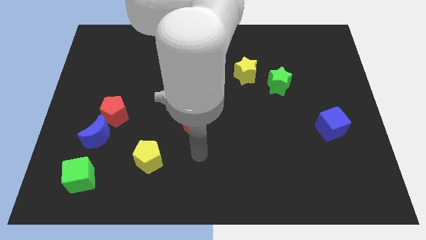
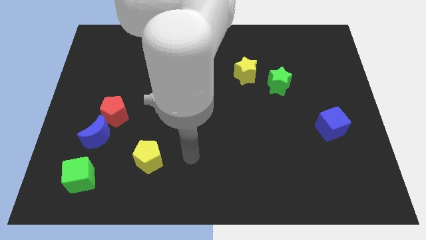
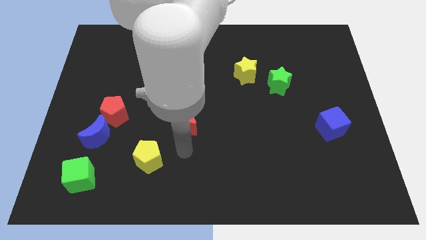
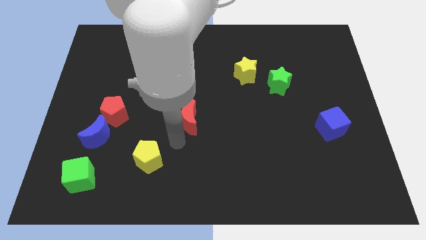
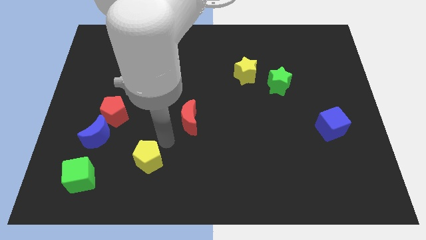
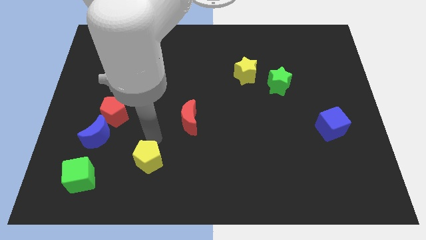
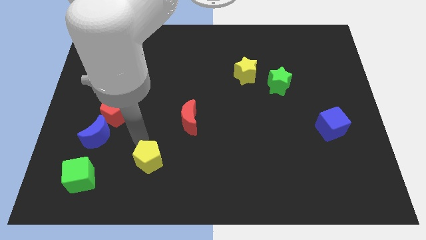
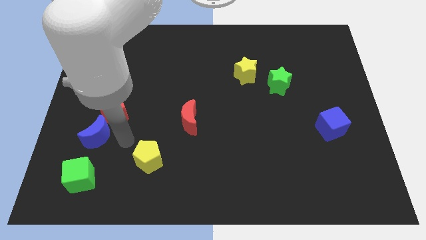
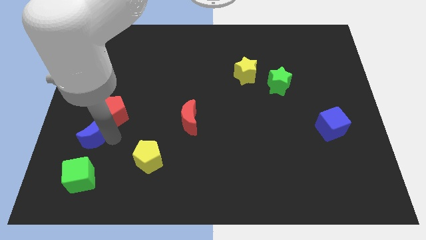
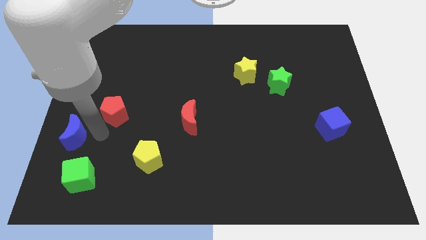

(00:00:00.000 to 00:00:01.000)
separate the red pentagon from the blue moon

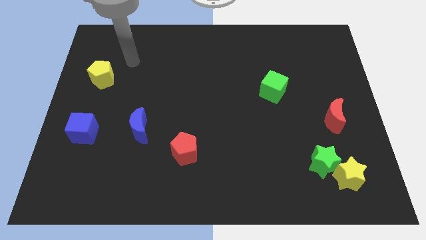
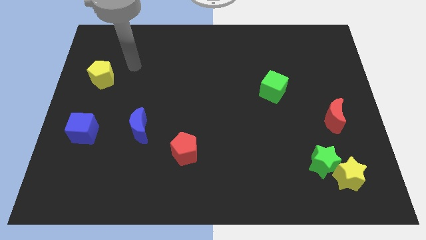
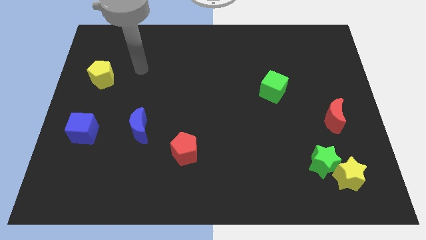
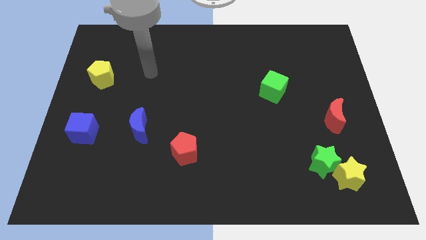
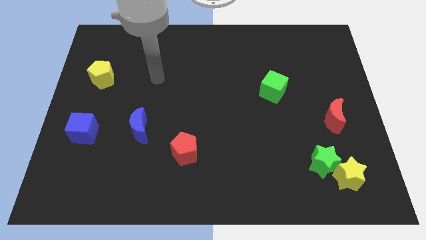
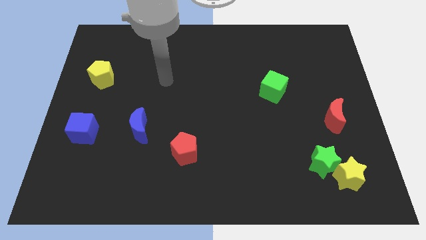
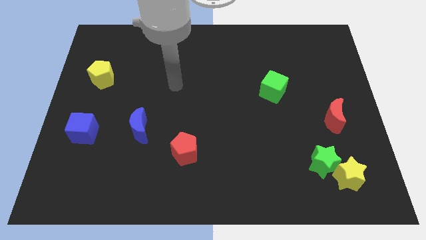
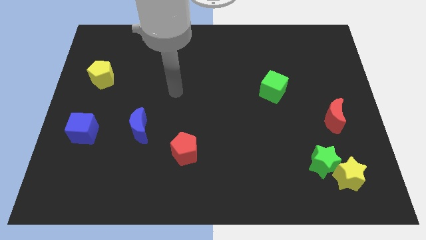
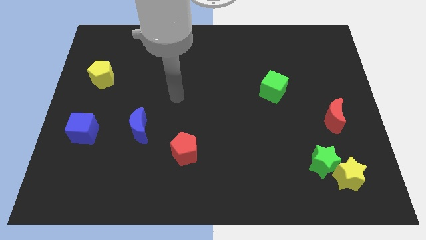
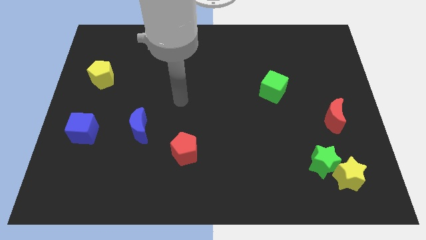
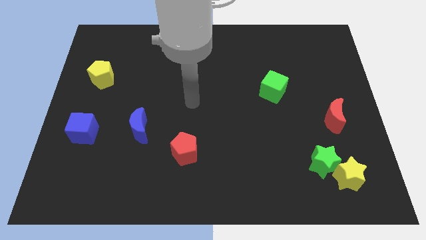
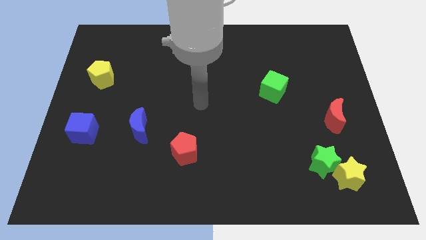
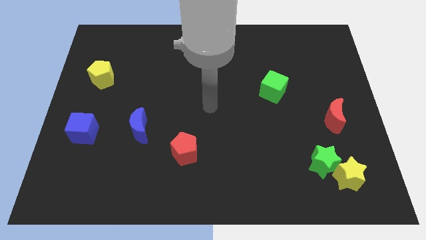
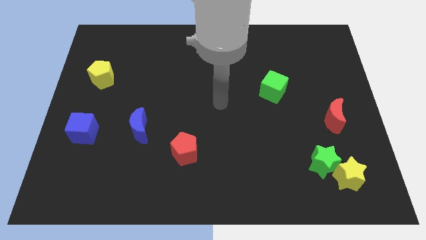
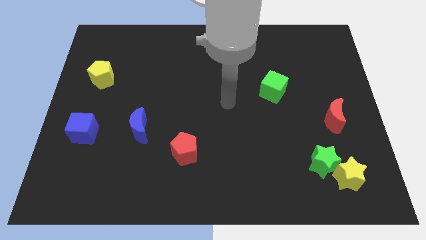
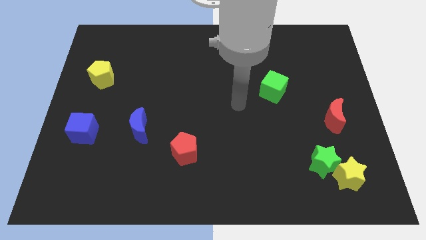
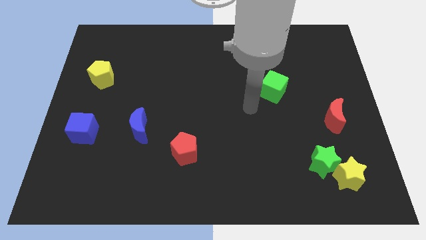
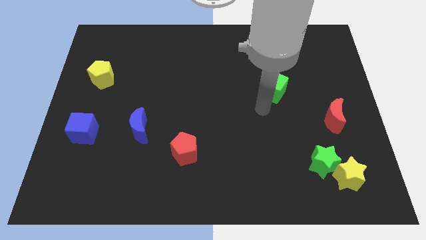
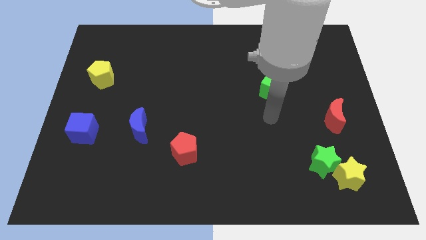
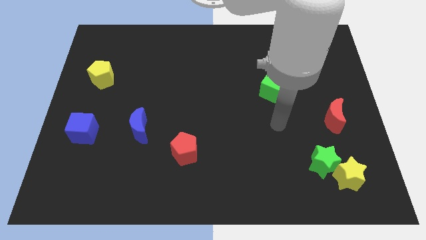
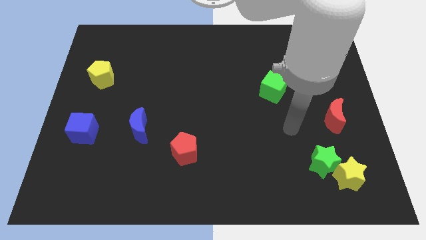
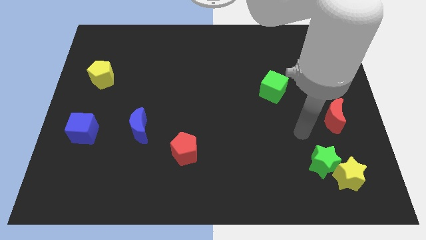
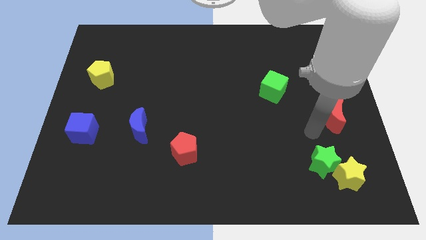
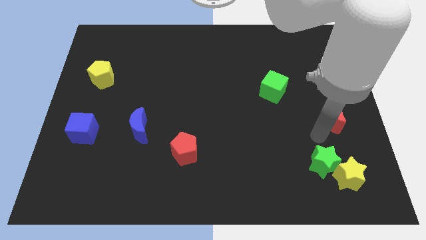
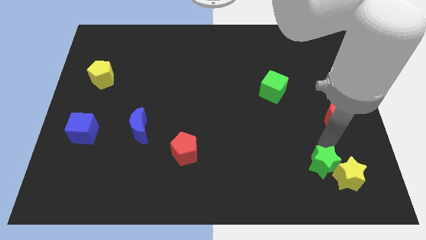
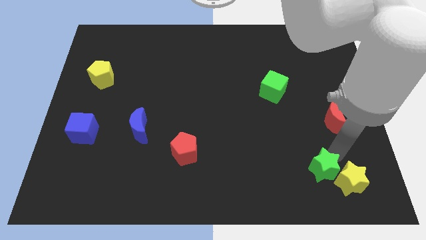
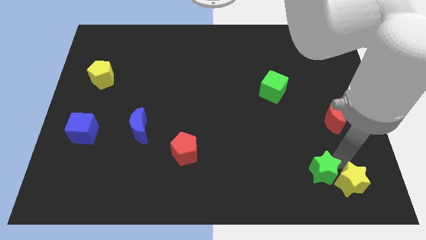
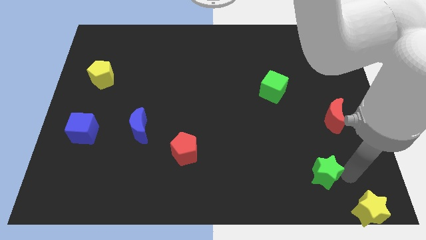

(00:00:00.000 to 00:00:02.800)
separate the green star from the yellow star

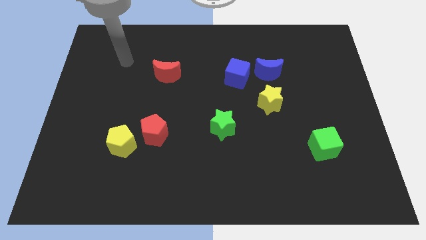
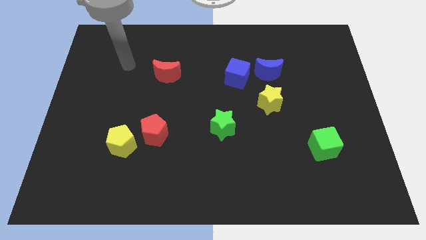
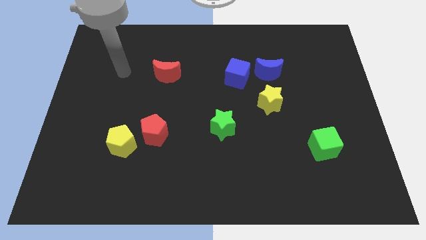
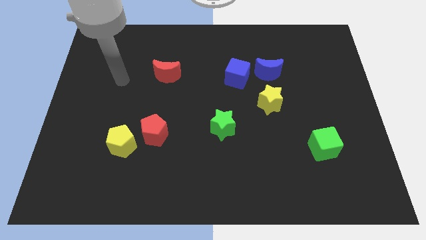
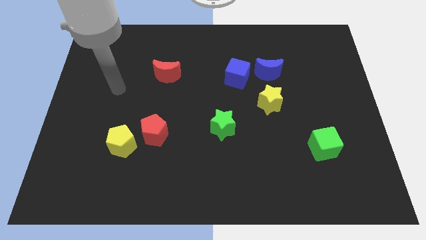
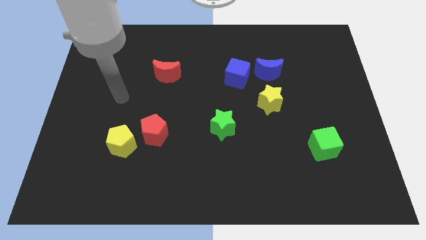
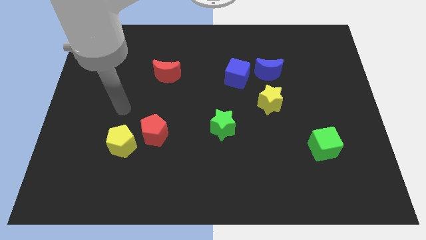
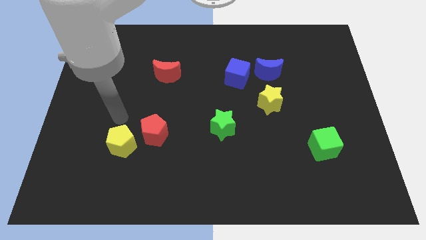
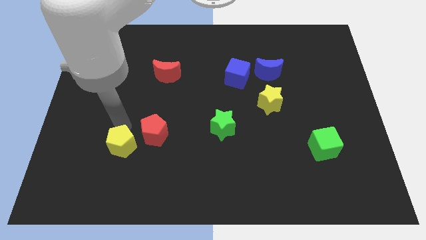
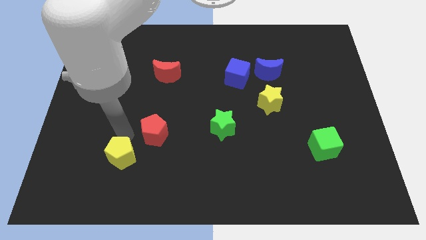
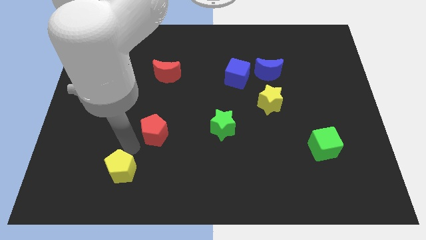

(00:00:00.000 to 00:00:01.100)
move the red pentagon away from the yellow pentagon

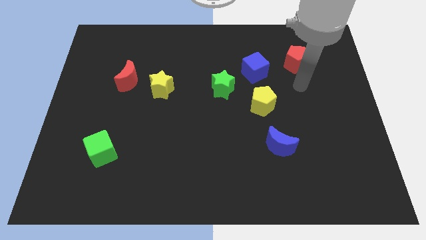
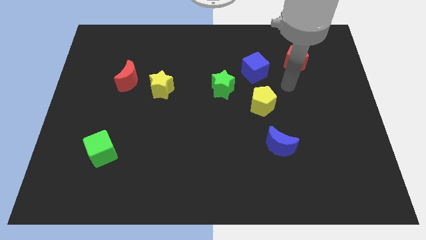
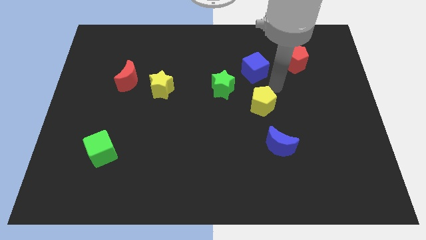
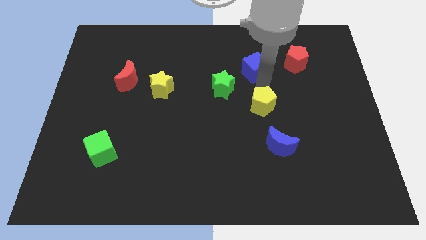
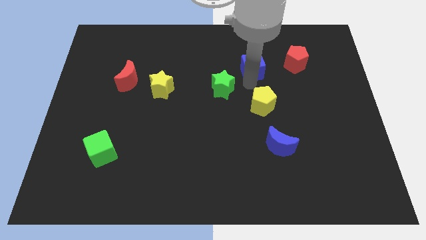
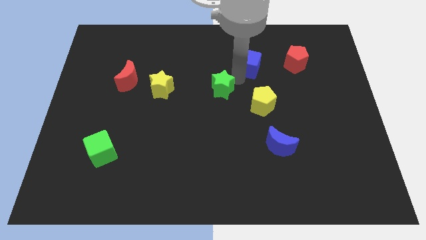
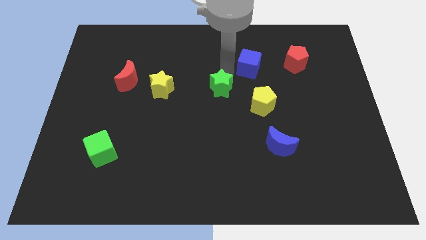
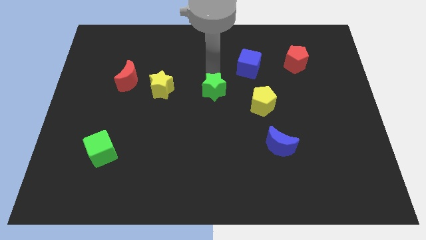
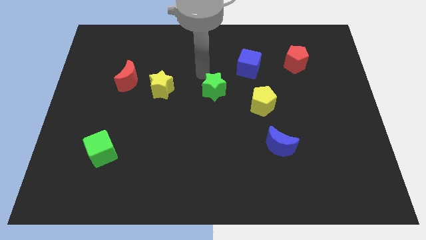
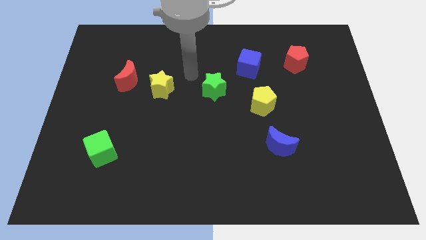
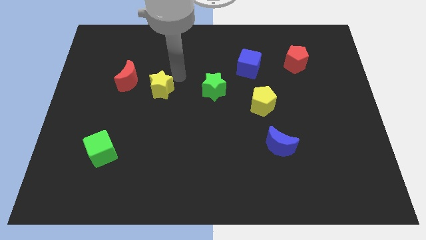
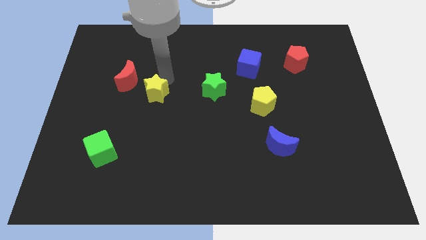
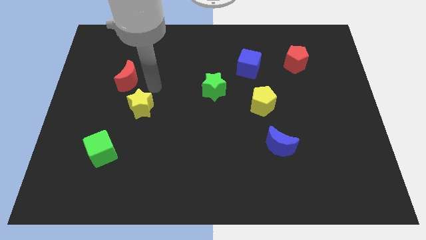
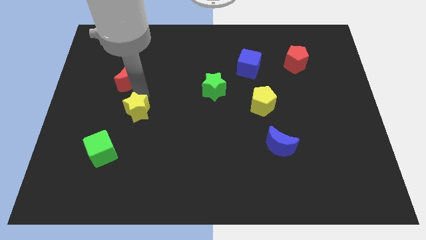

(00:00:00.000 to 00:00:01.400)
pull the red moon apart from the yellow star

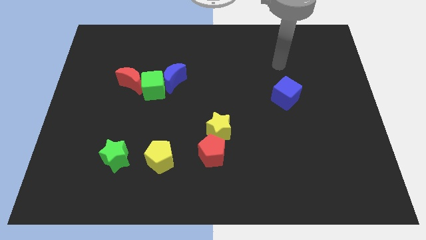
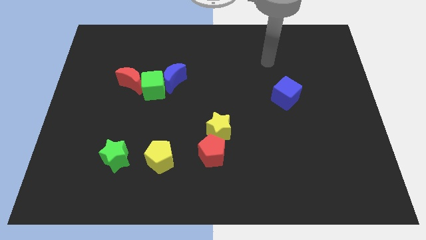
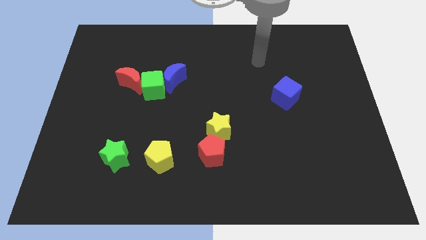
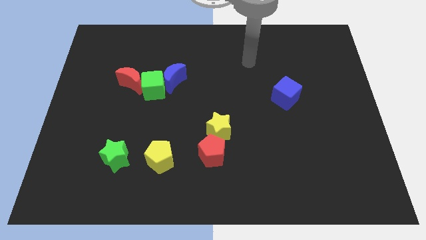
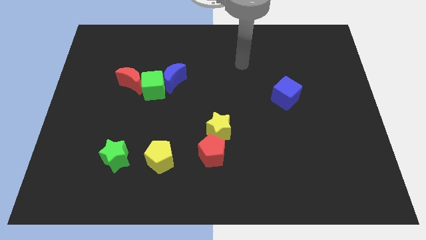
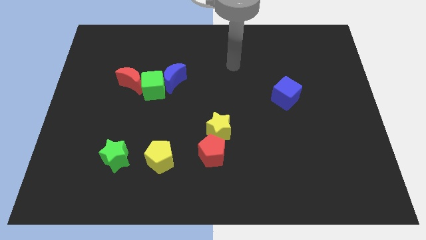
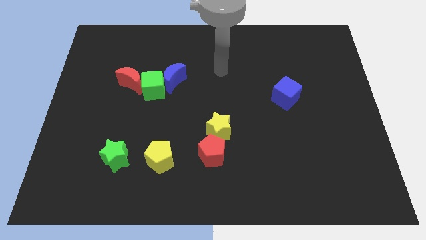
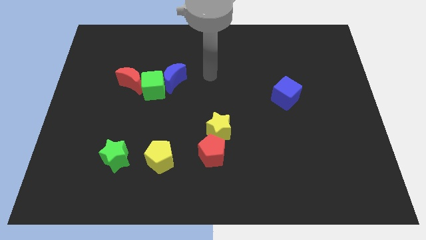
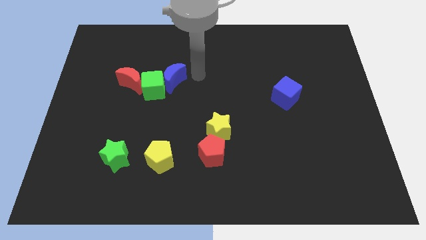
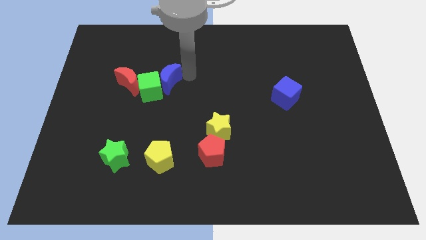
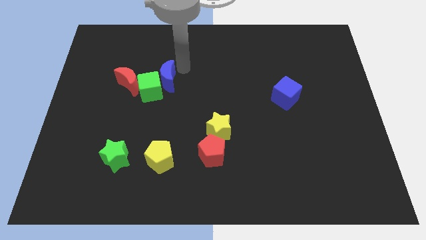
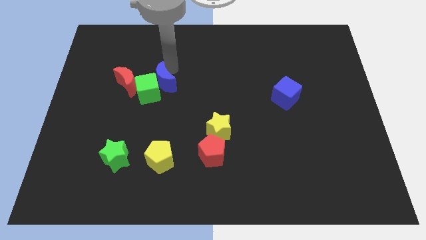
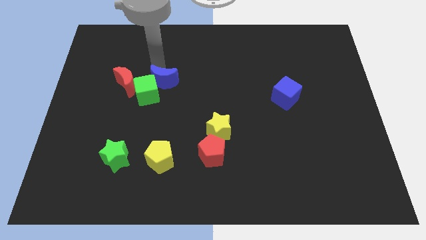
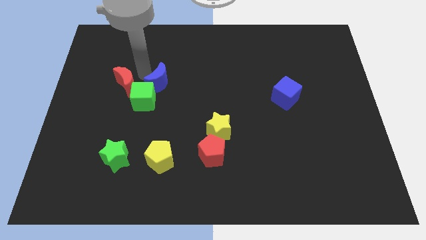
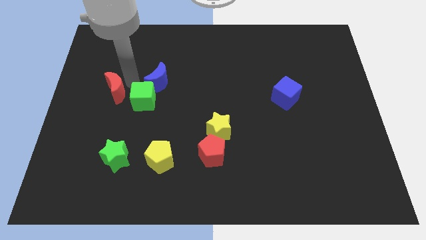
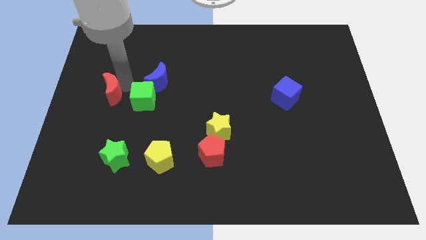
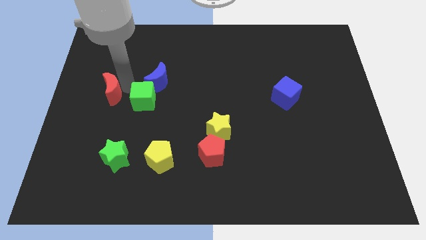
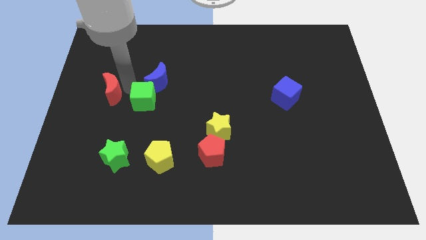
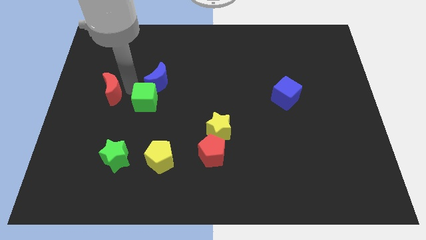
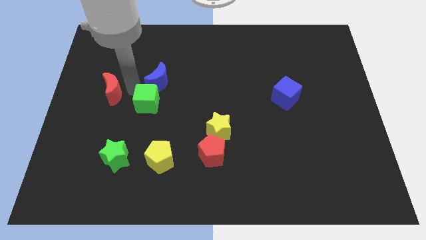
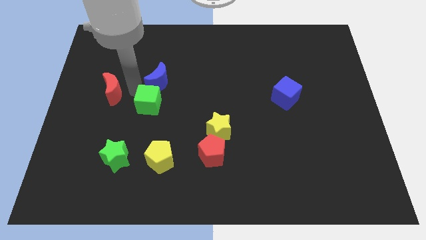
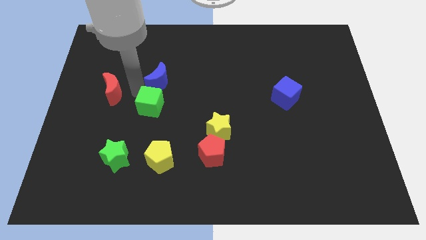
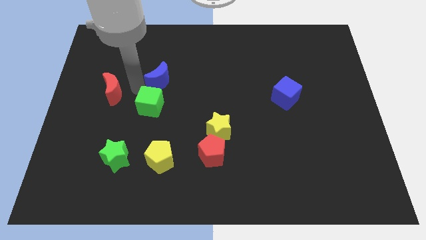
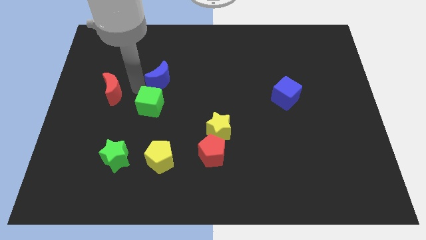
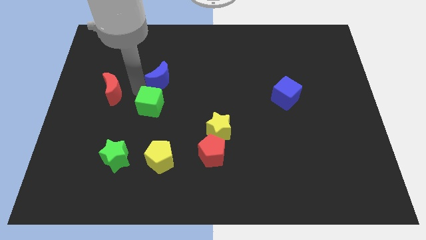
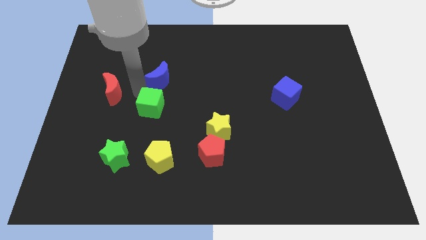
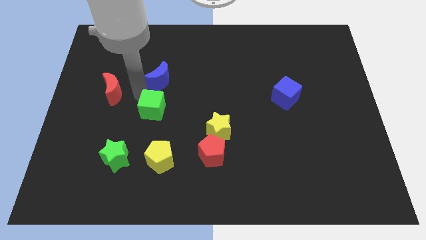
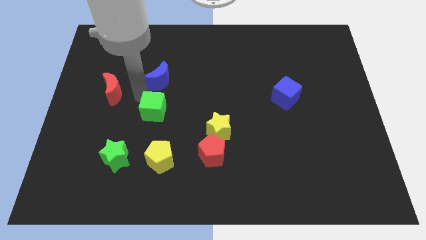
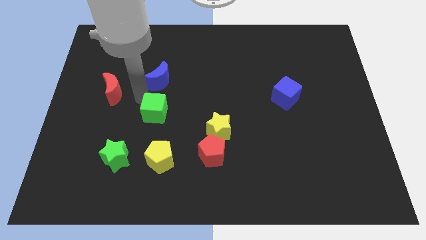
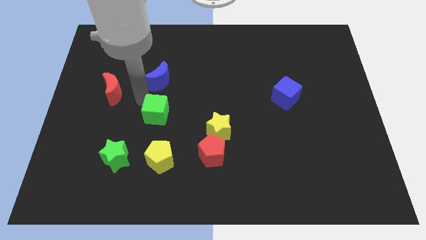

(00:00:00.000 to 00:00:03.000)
move the green cube away from the blue moon and red moon
